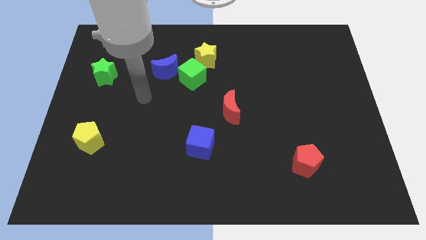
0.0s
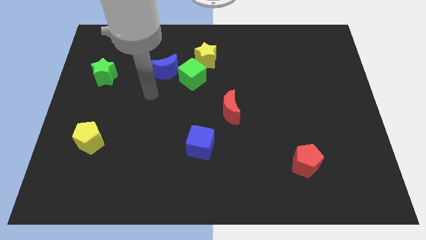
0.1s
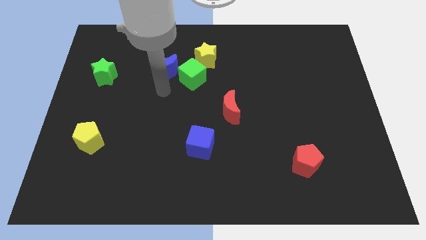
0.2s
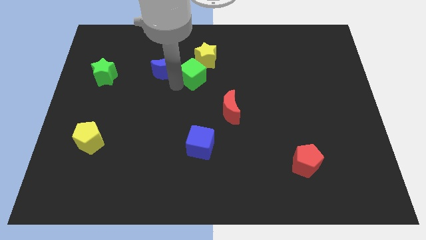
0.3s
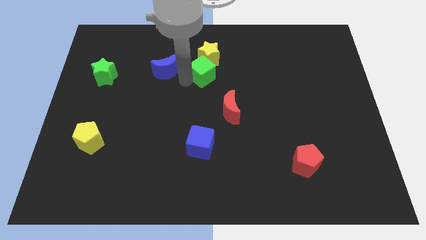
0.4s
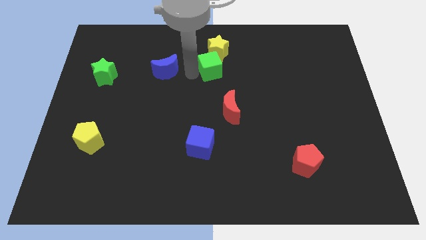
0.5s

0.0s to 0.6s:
move the blue moon away from the green cube

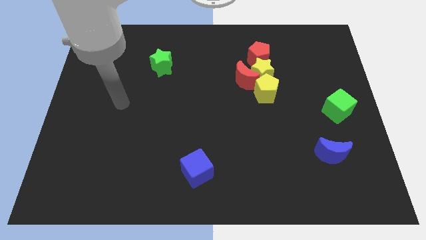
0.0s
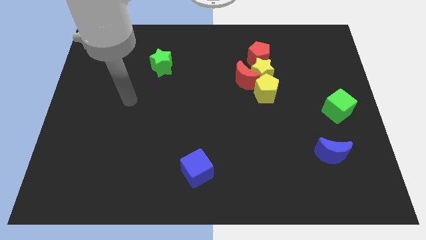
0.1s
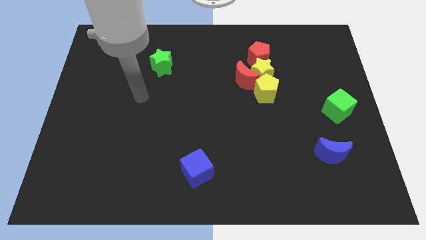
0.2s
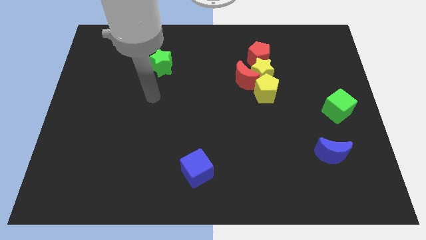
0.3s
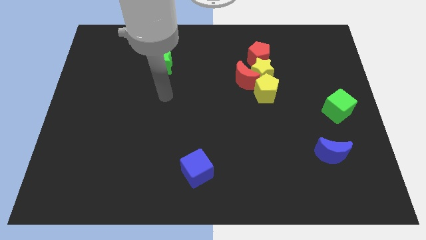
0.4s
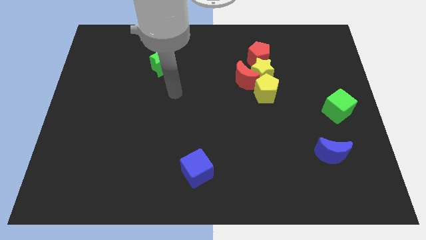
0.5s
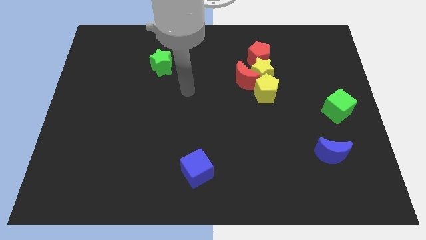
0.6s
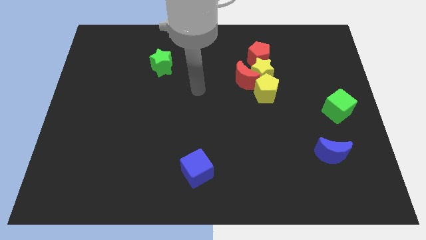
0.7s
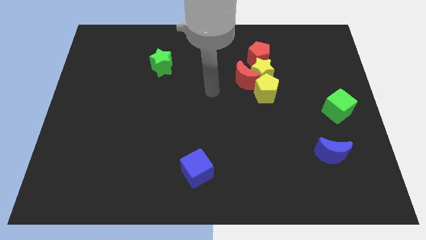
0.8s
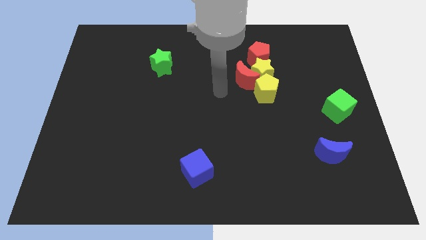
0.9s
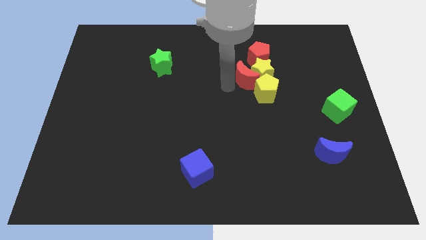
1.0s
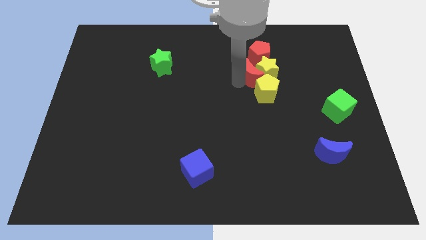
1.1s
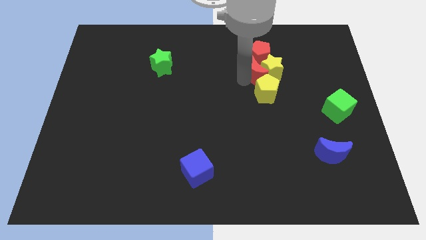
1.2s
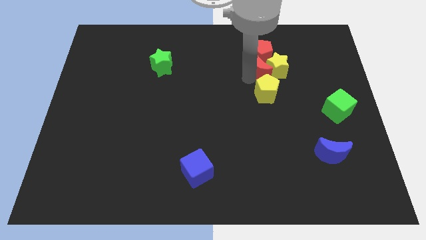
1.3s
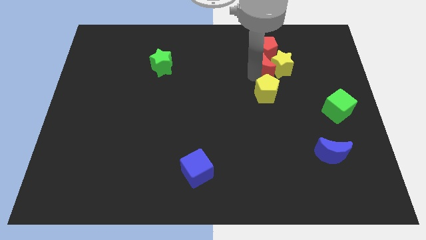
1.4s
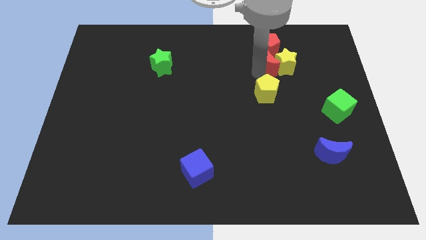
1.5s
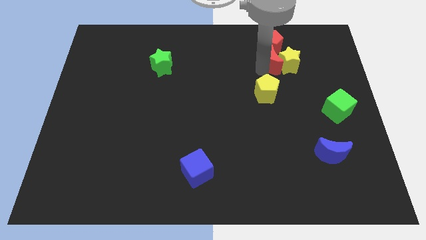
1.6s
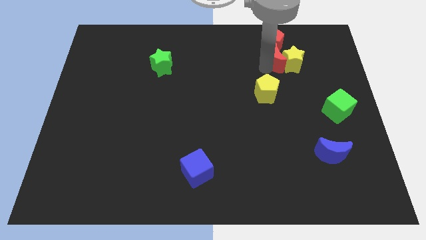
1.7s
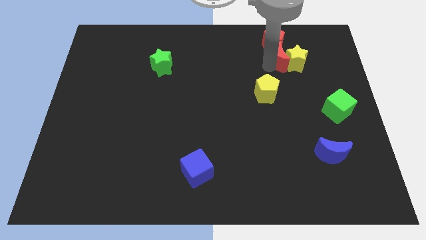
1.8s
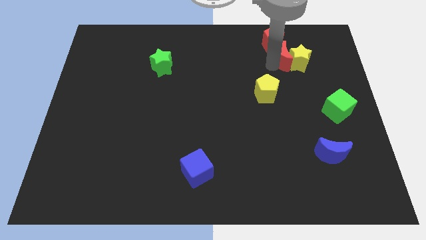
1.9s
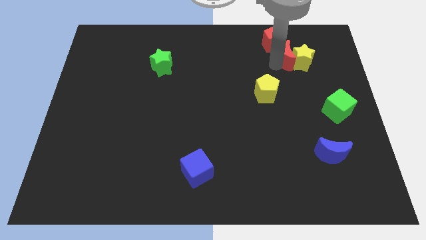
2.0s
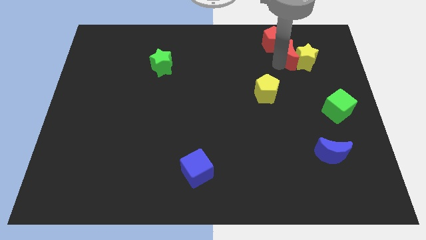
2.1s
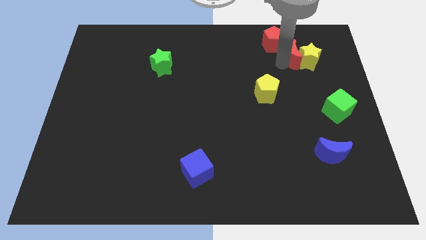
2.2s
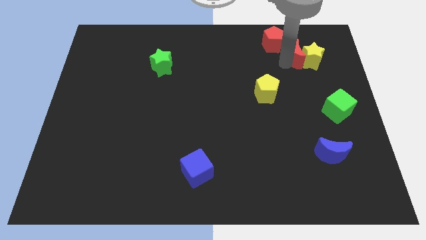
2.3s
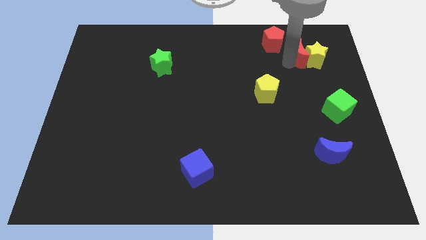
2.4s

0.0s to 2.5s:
move the yellow star away from the clump

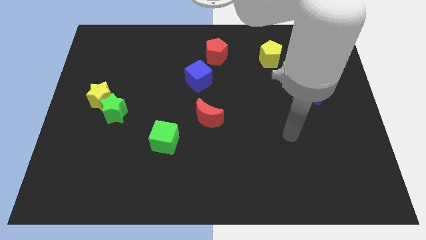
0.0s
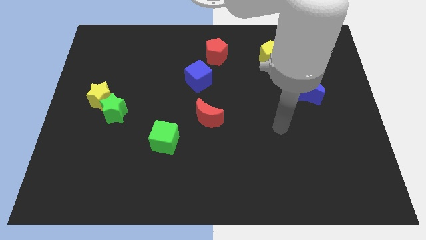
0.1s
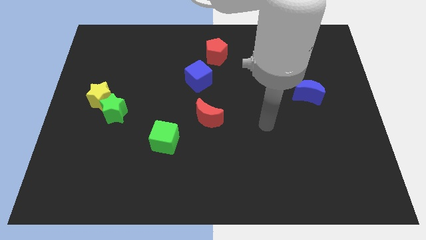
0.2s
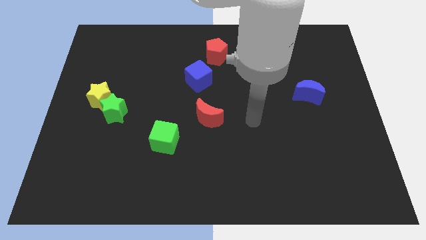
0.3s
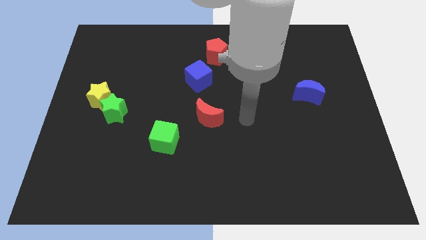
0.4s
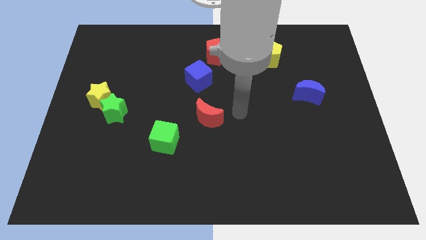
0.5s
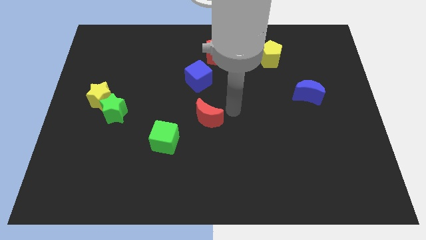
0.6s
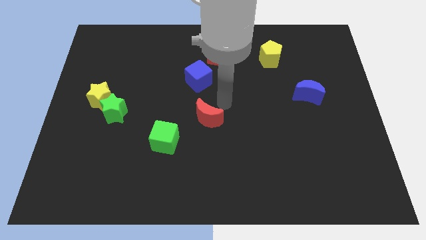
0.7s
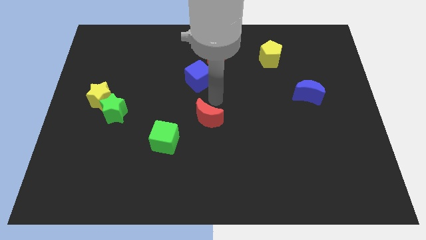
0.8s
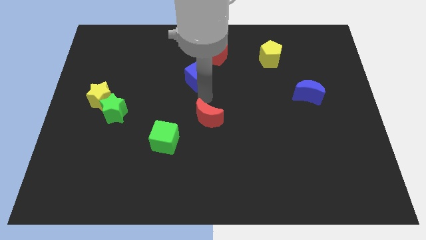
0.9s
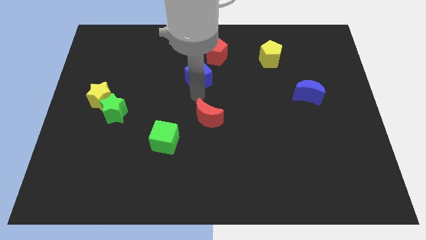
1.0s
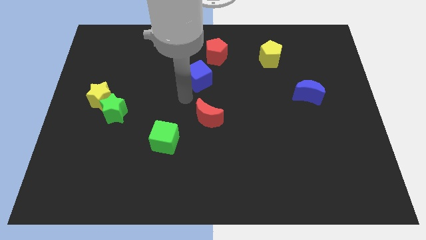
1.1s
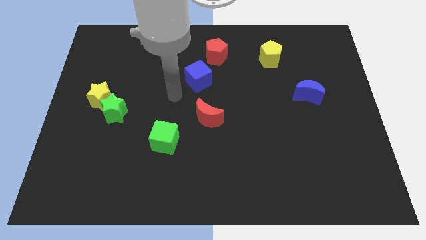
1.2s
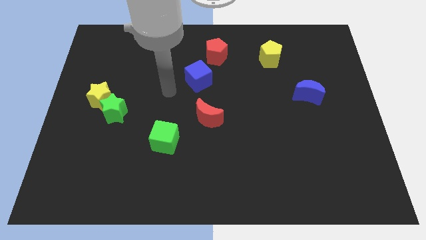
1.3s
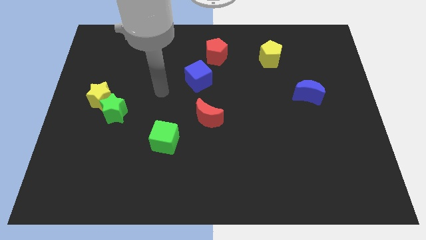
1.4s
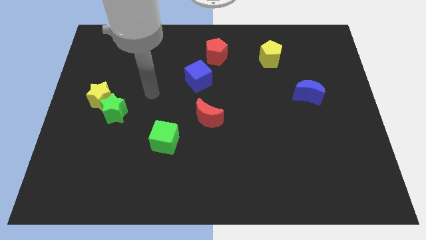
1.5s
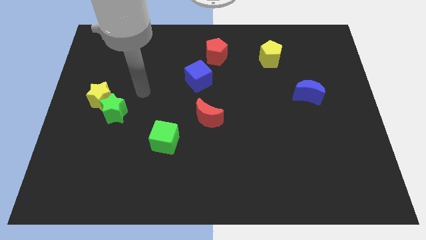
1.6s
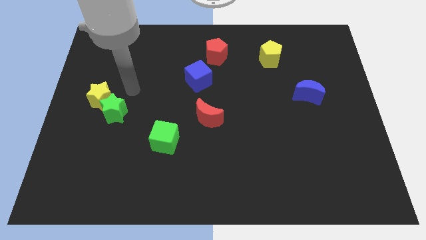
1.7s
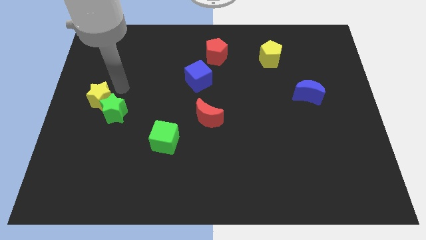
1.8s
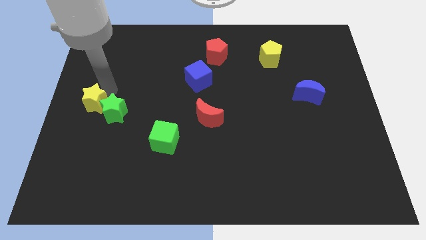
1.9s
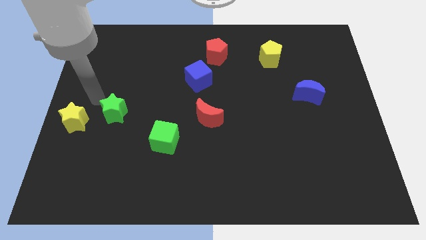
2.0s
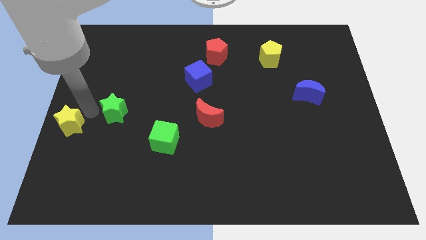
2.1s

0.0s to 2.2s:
pull the green star apart from the yellow star

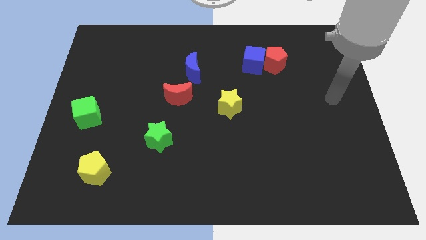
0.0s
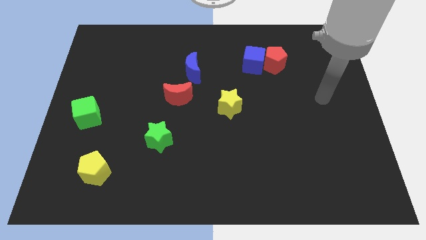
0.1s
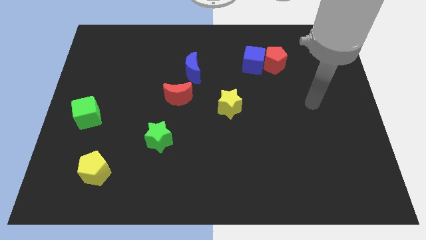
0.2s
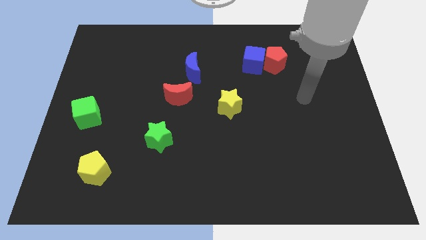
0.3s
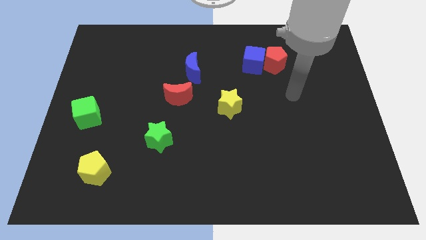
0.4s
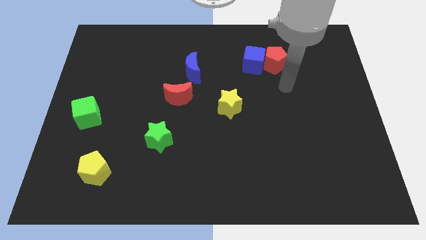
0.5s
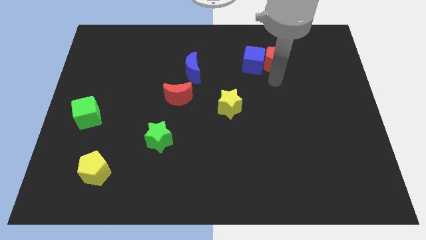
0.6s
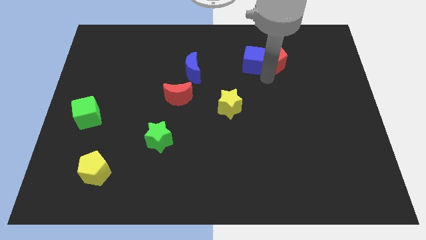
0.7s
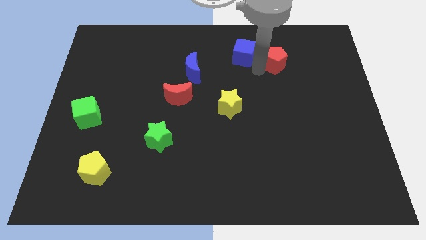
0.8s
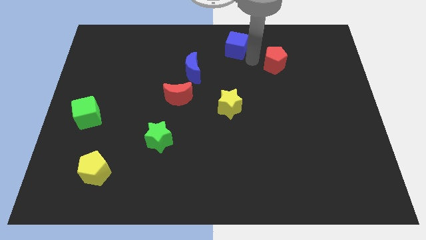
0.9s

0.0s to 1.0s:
separate the red pentagon from the blue cube

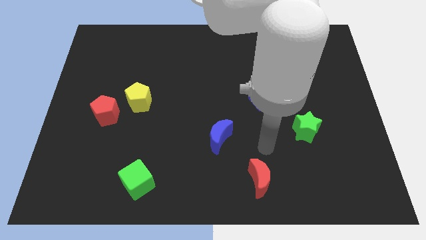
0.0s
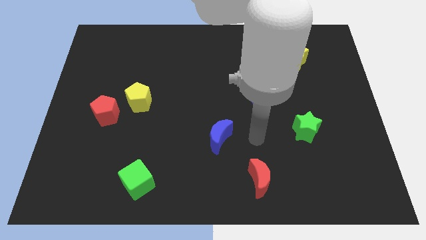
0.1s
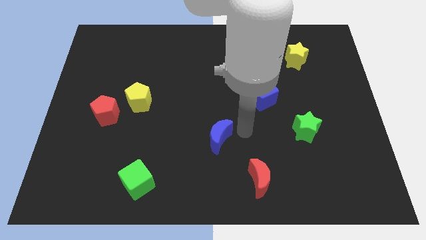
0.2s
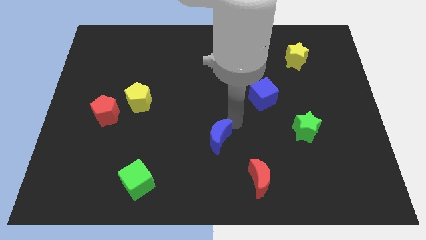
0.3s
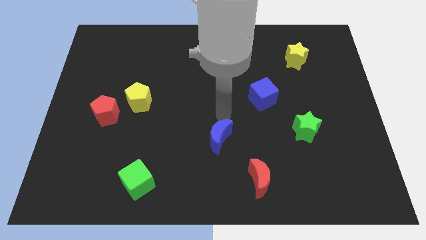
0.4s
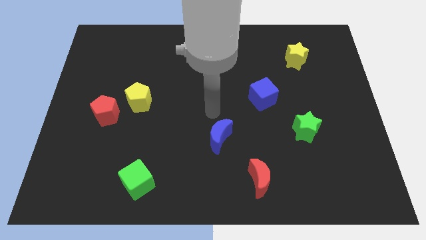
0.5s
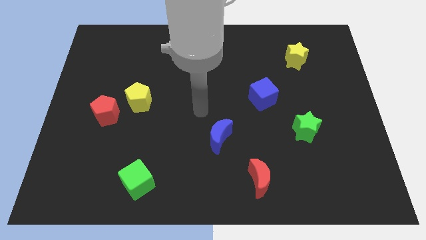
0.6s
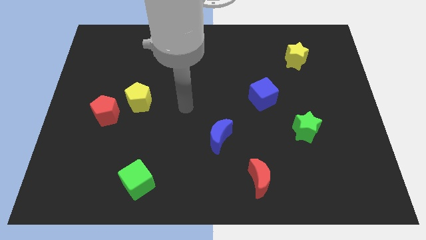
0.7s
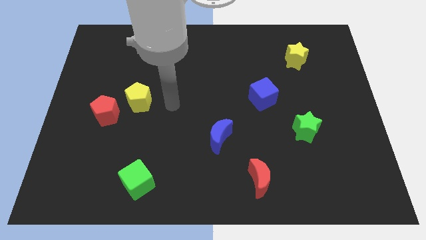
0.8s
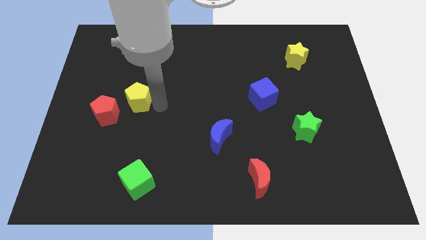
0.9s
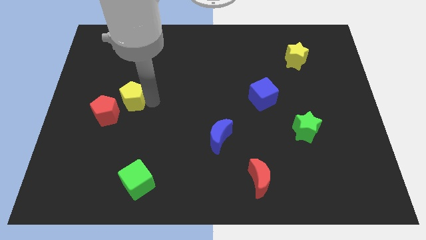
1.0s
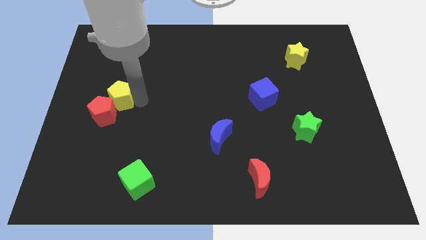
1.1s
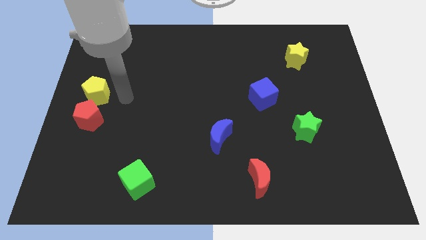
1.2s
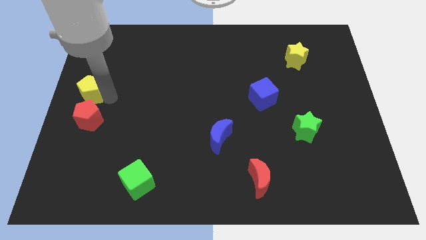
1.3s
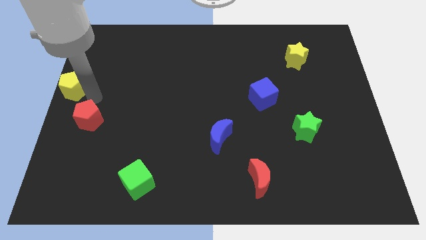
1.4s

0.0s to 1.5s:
pull the red pentagon apart from the yellow pentagon

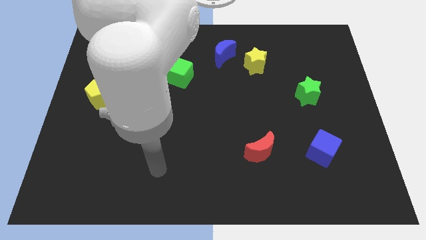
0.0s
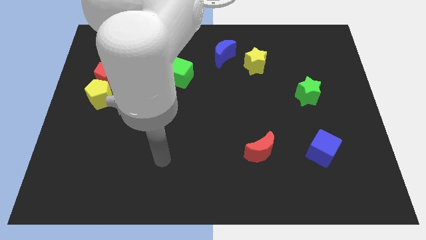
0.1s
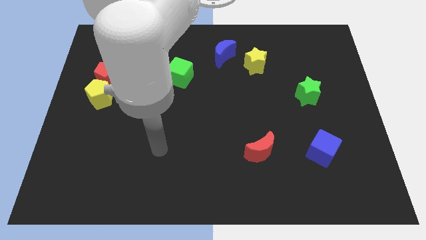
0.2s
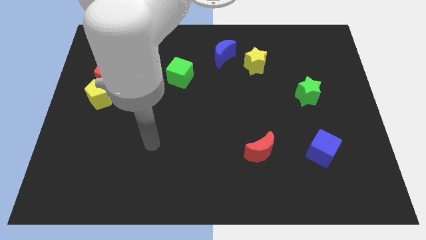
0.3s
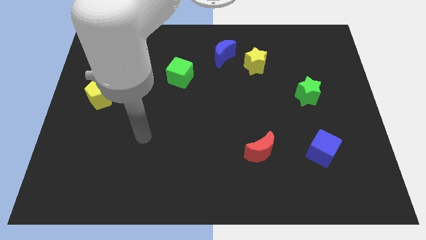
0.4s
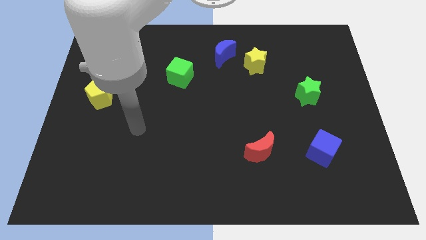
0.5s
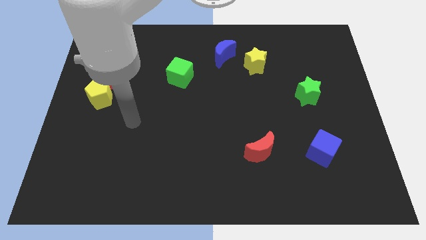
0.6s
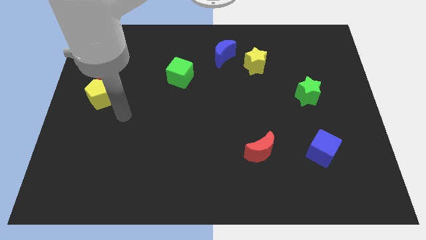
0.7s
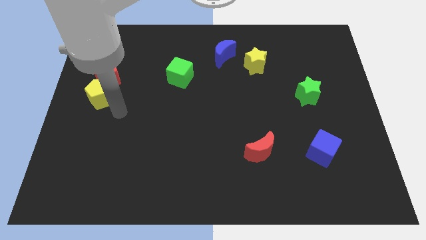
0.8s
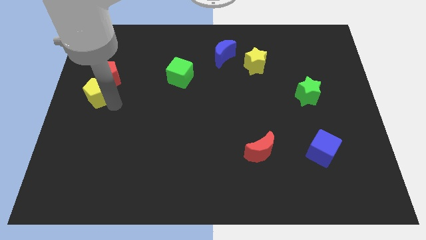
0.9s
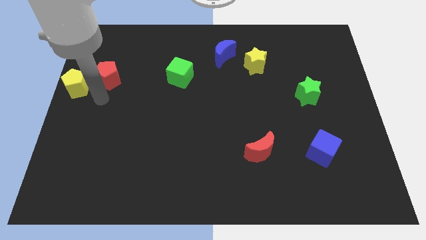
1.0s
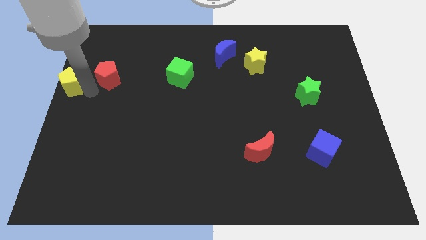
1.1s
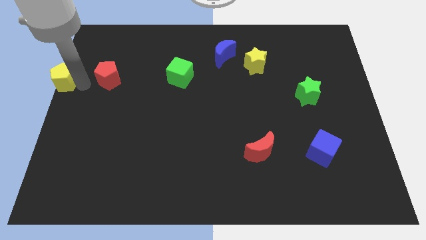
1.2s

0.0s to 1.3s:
separate the red pentagon from the yellow pentagon

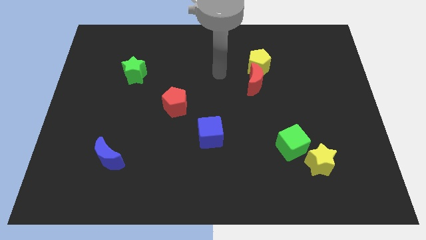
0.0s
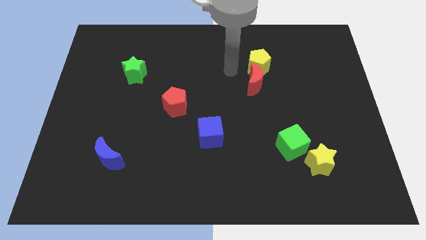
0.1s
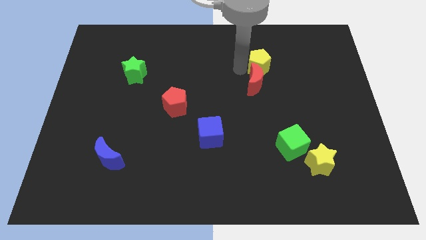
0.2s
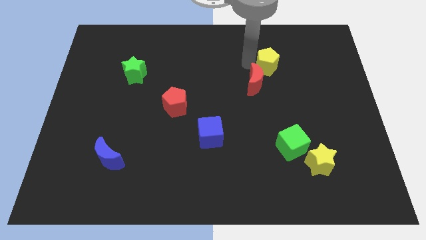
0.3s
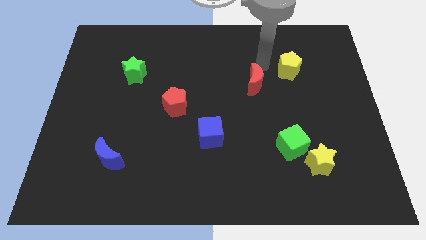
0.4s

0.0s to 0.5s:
pull the red moon apart from the yellow pentagon
